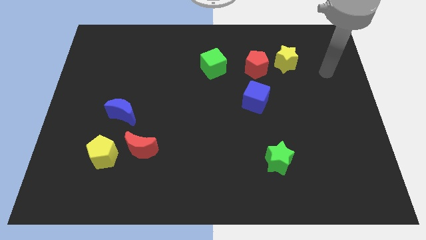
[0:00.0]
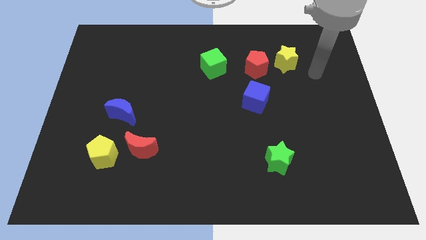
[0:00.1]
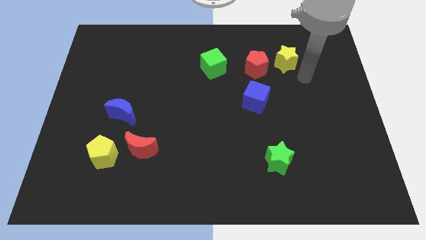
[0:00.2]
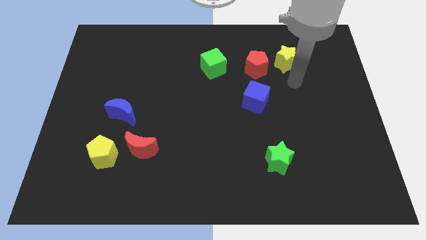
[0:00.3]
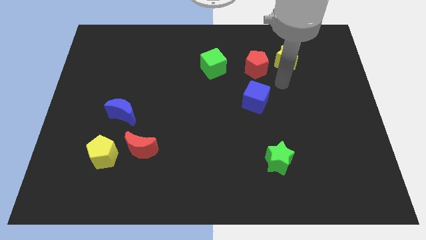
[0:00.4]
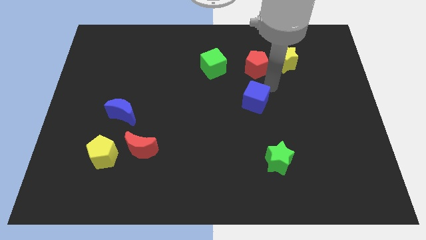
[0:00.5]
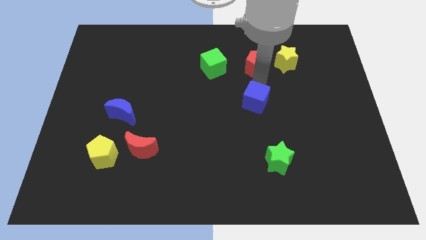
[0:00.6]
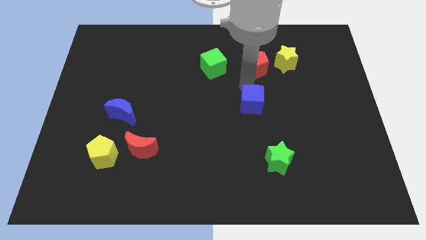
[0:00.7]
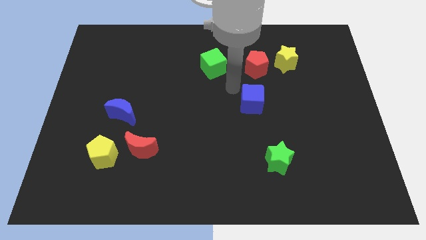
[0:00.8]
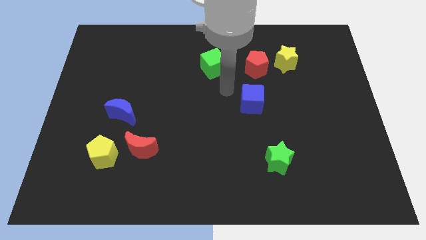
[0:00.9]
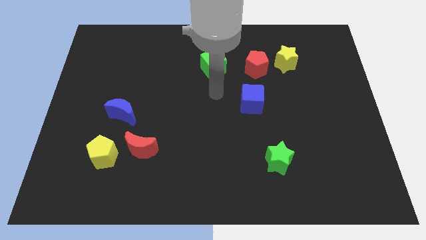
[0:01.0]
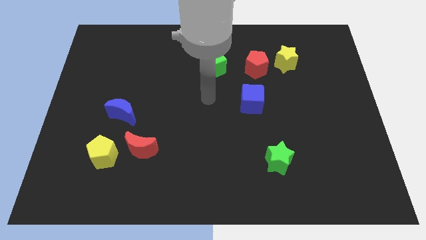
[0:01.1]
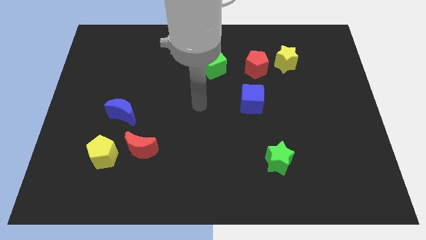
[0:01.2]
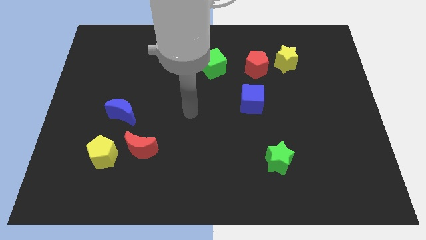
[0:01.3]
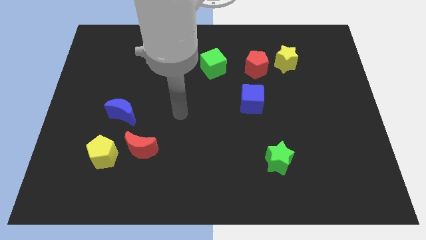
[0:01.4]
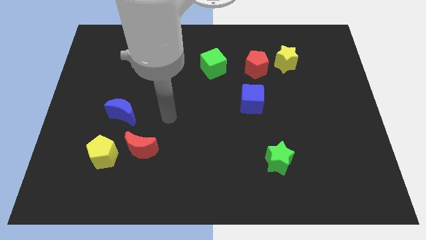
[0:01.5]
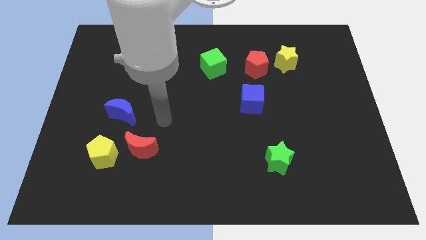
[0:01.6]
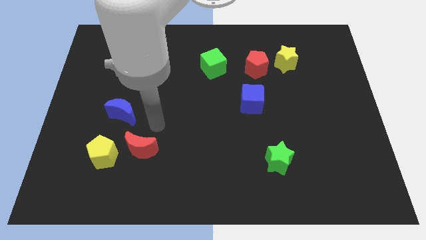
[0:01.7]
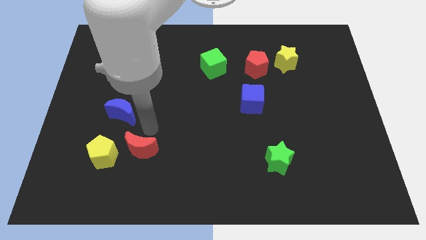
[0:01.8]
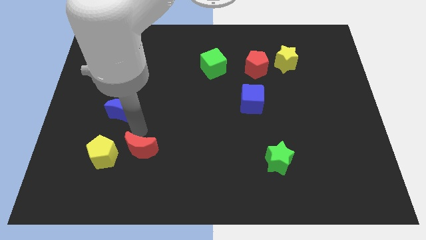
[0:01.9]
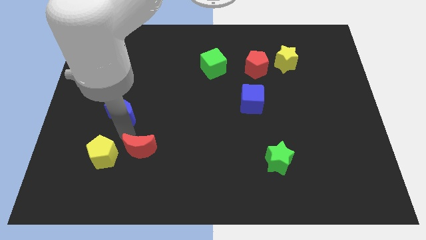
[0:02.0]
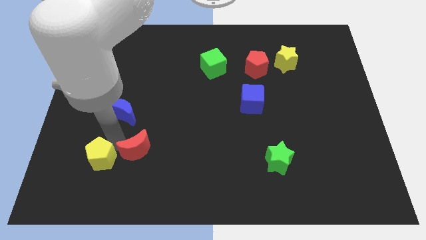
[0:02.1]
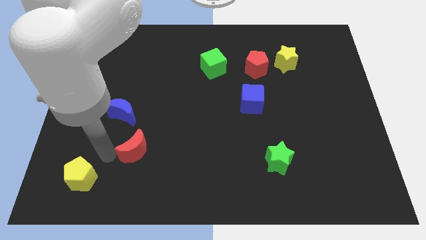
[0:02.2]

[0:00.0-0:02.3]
move the red moon away from the yellow pentagon

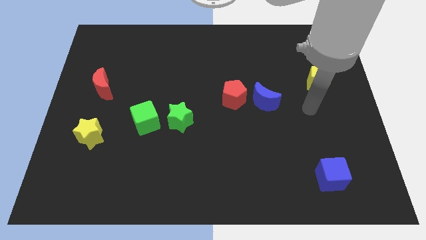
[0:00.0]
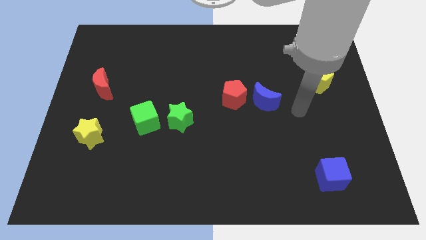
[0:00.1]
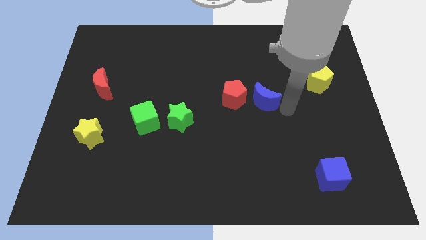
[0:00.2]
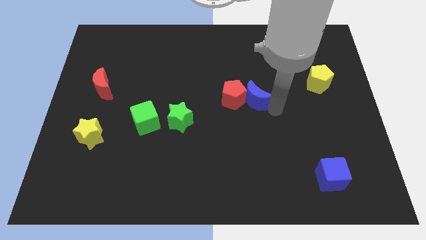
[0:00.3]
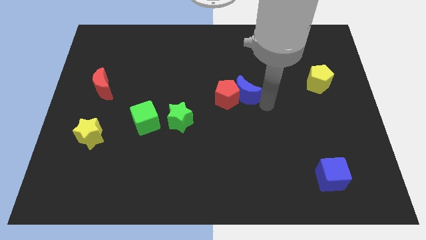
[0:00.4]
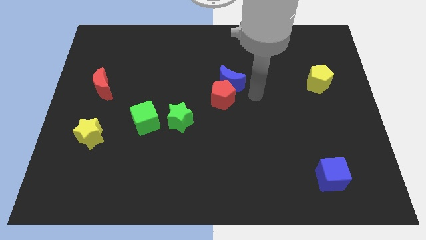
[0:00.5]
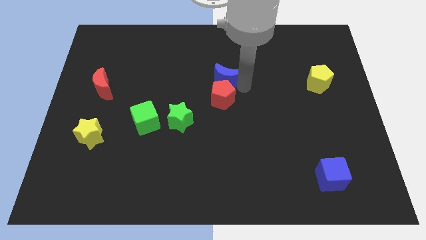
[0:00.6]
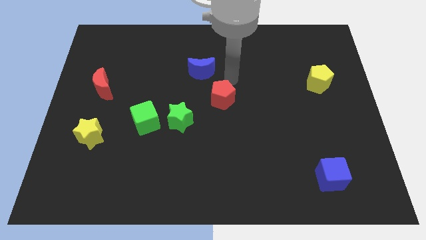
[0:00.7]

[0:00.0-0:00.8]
move the red pentagon away from the blue moon

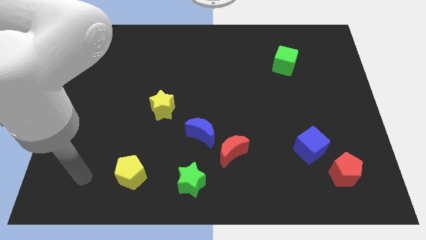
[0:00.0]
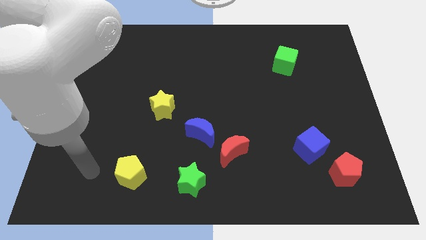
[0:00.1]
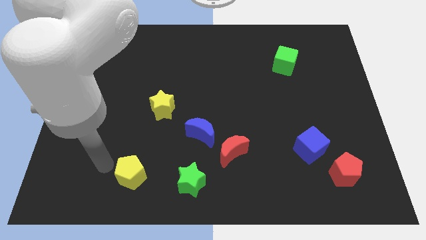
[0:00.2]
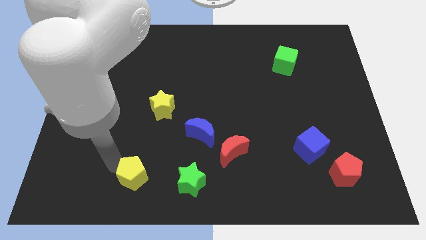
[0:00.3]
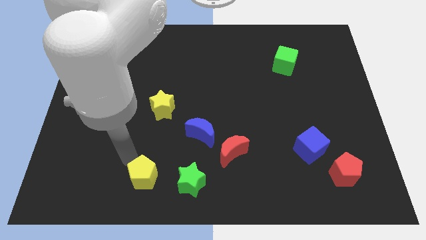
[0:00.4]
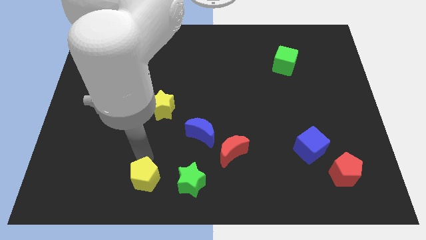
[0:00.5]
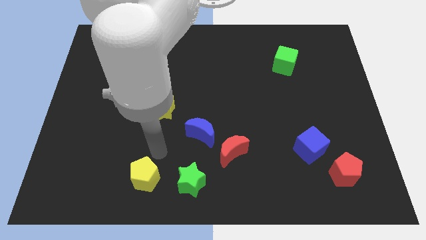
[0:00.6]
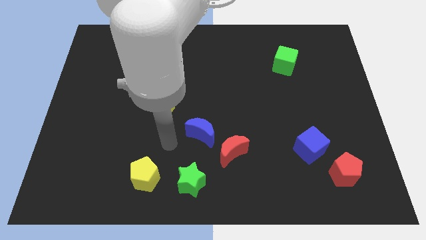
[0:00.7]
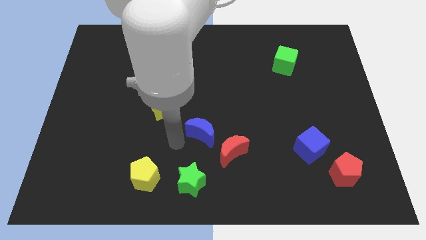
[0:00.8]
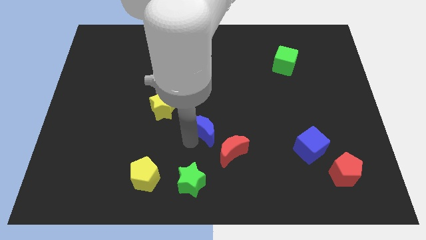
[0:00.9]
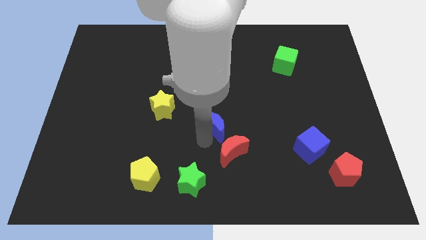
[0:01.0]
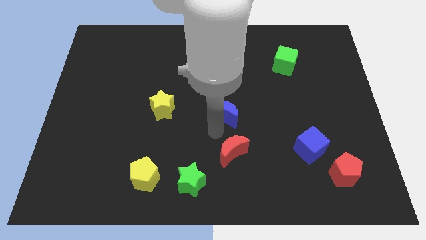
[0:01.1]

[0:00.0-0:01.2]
separate the red moon from the blue moon

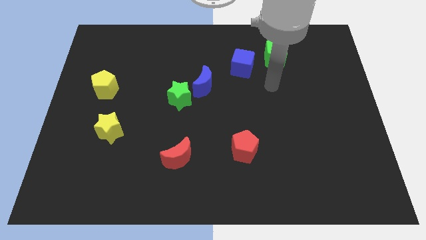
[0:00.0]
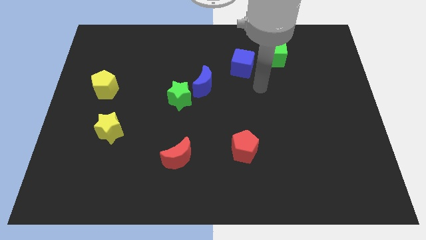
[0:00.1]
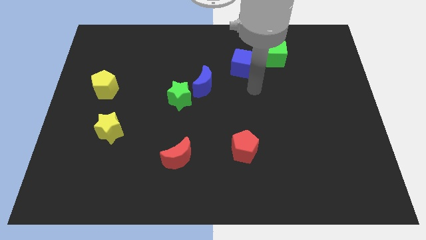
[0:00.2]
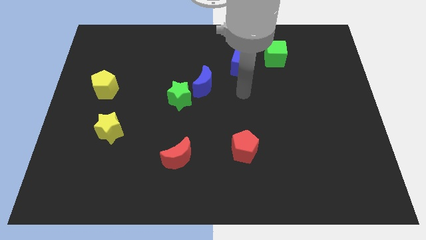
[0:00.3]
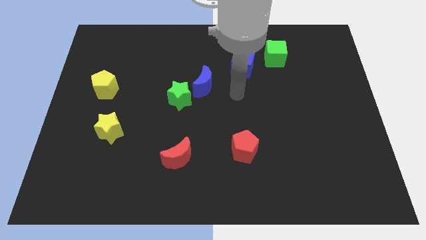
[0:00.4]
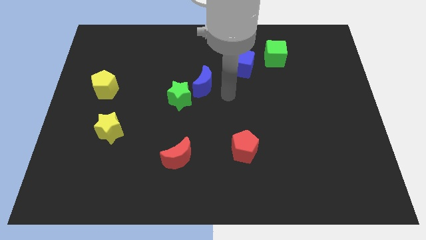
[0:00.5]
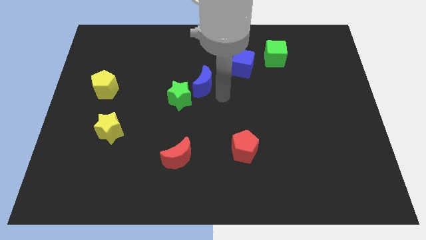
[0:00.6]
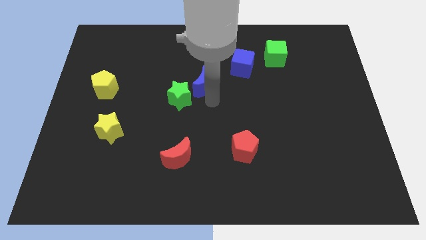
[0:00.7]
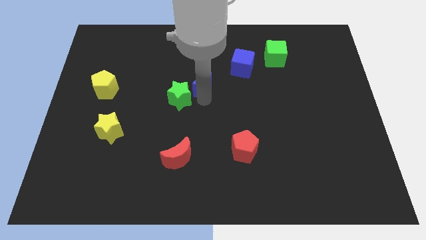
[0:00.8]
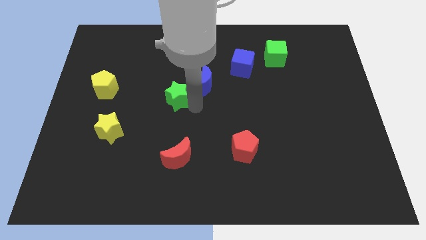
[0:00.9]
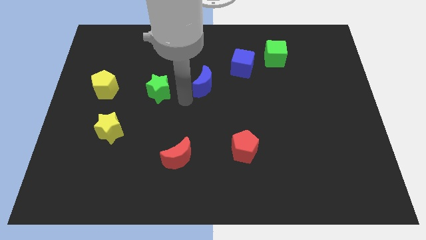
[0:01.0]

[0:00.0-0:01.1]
move the blue moon away from the green star

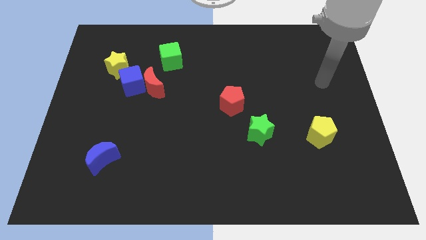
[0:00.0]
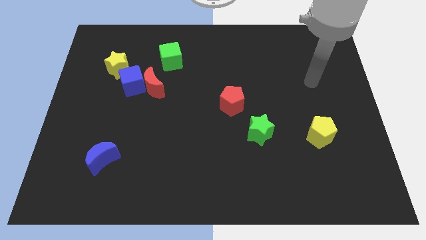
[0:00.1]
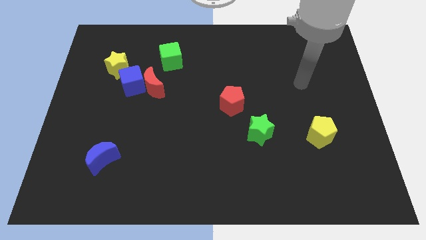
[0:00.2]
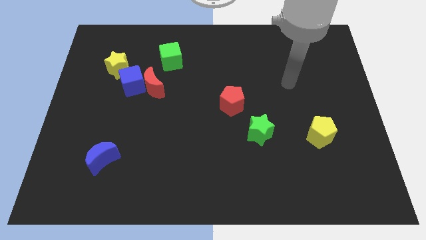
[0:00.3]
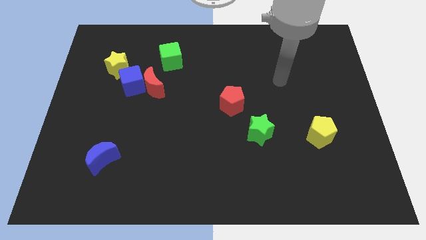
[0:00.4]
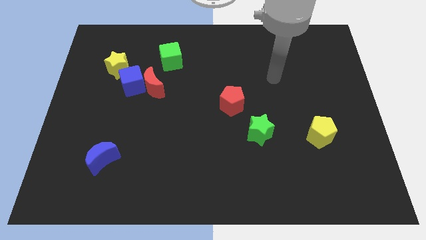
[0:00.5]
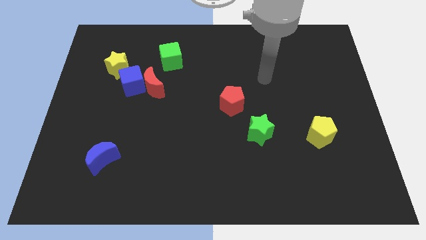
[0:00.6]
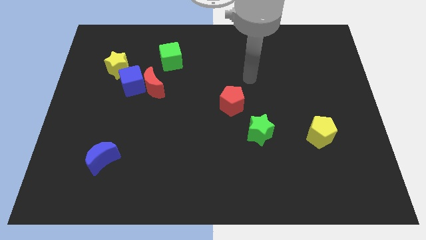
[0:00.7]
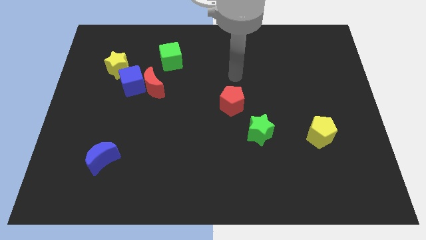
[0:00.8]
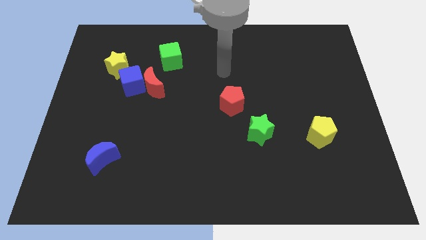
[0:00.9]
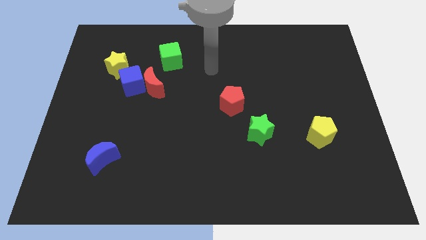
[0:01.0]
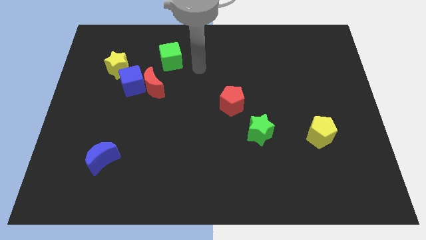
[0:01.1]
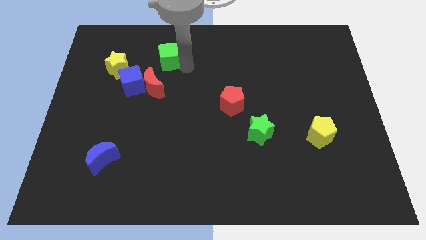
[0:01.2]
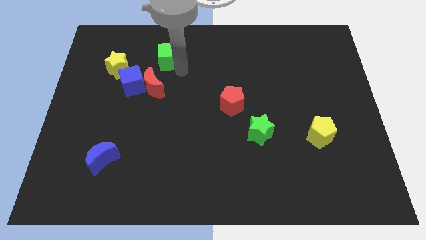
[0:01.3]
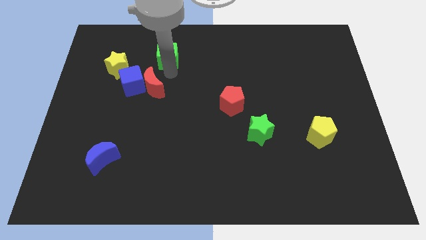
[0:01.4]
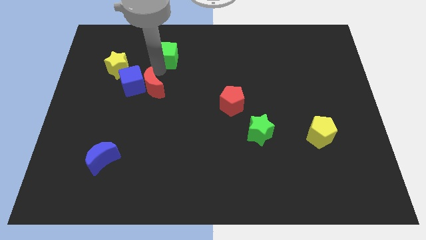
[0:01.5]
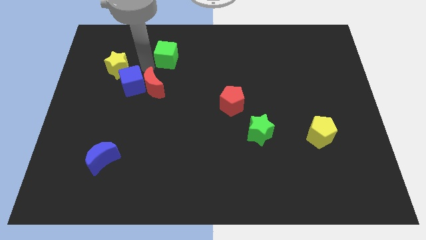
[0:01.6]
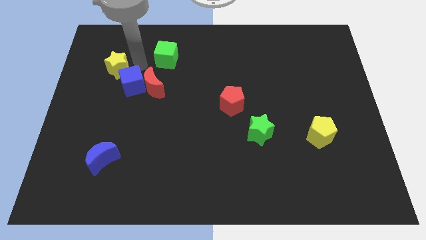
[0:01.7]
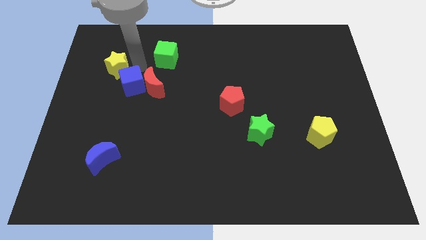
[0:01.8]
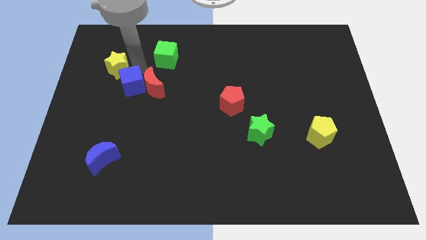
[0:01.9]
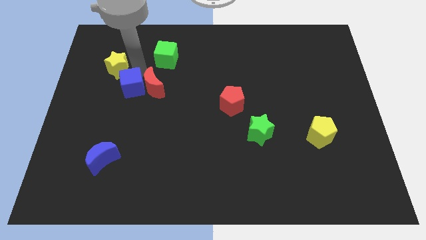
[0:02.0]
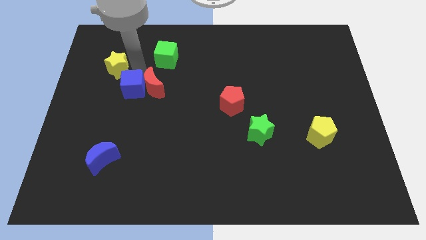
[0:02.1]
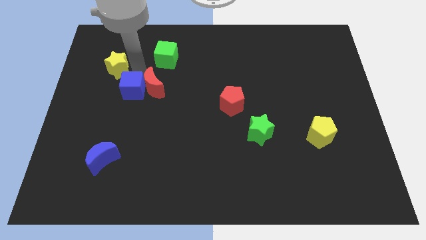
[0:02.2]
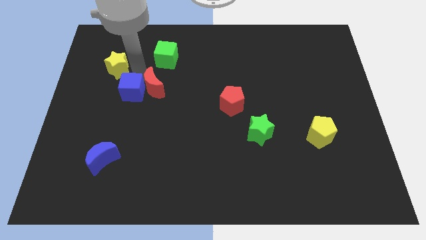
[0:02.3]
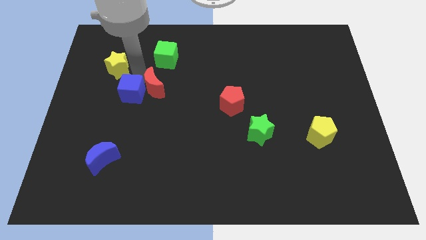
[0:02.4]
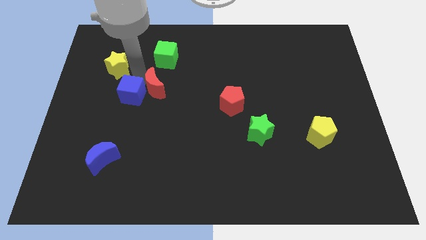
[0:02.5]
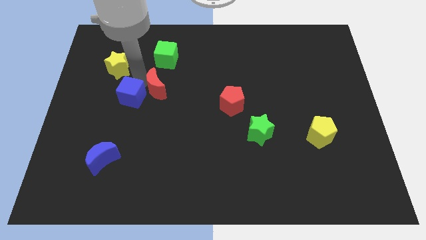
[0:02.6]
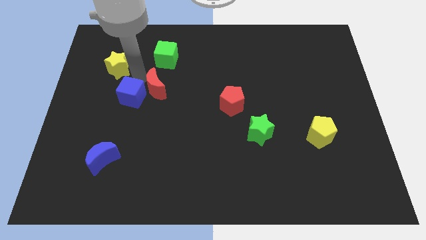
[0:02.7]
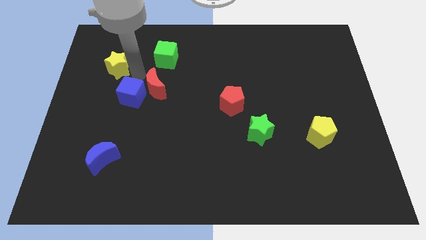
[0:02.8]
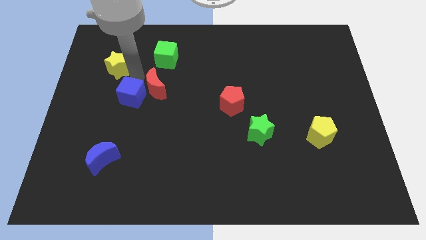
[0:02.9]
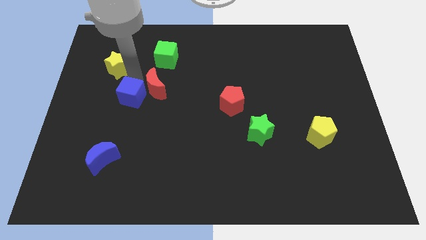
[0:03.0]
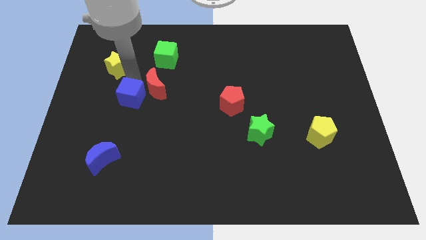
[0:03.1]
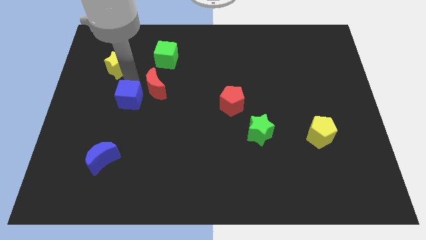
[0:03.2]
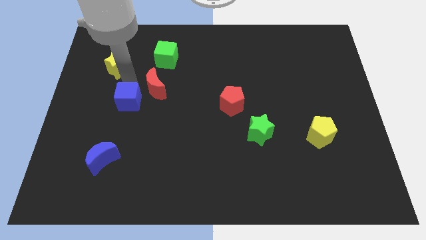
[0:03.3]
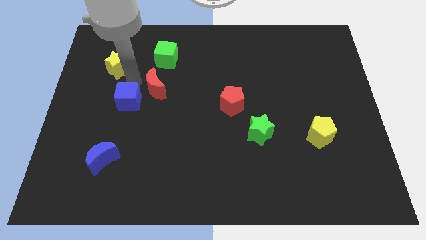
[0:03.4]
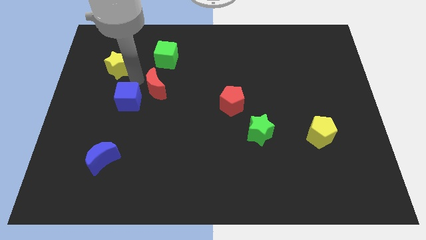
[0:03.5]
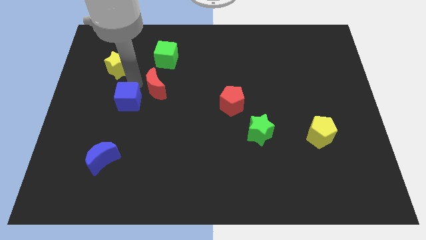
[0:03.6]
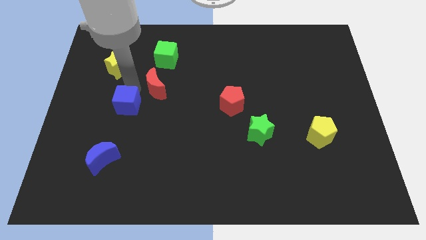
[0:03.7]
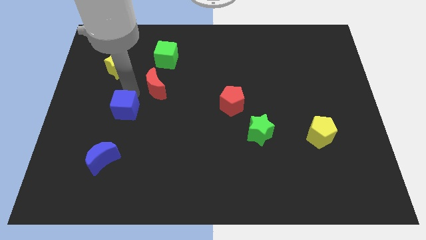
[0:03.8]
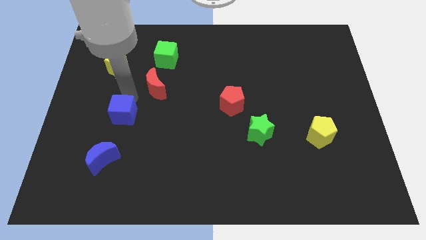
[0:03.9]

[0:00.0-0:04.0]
move the blue cube away from the red moon and yellow star

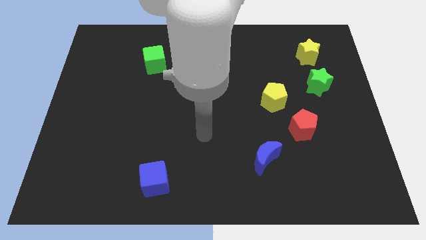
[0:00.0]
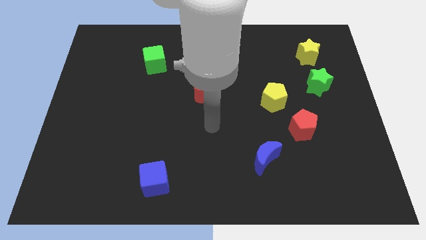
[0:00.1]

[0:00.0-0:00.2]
separate the red pentagon from the yellow pentagon
